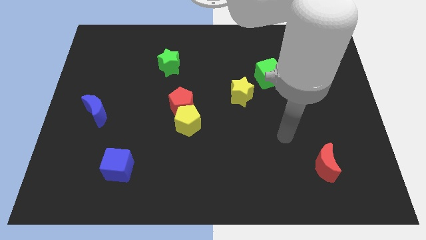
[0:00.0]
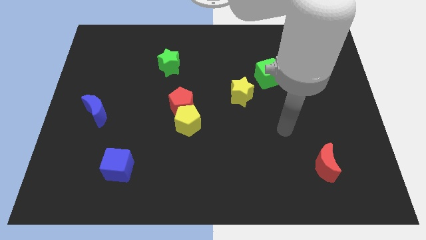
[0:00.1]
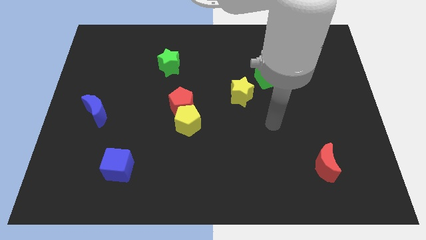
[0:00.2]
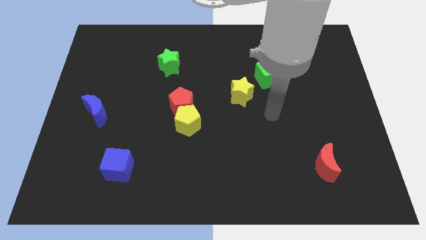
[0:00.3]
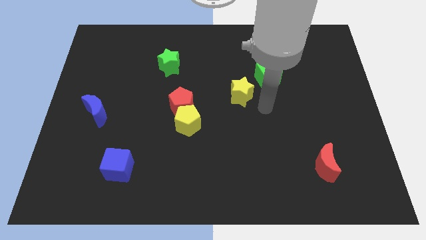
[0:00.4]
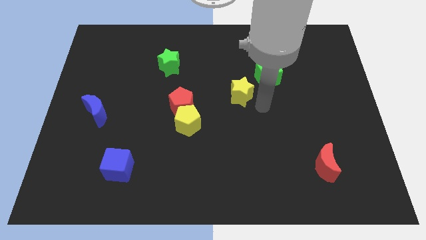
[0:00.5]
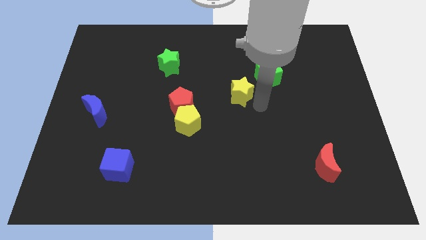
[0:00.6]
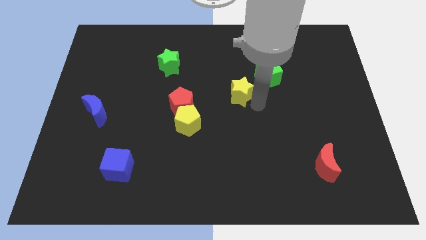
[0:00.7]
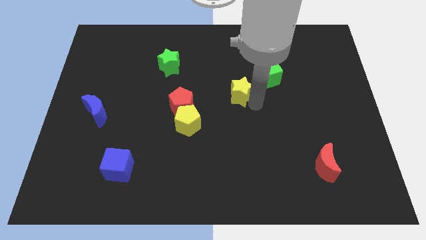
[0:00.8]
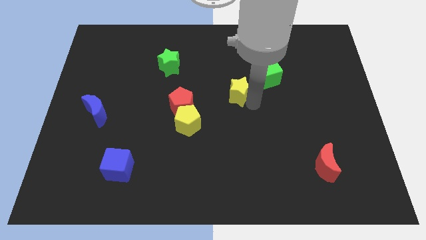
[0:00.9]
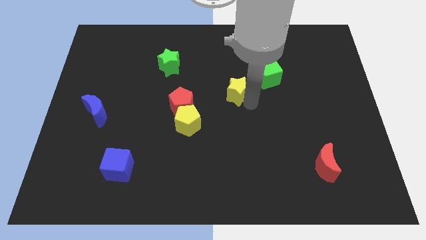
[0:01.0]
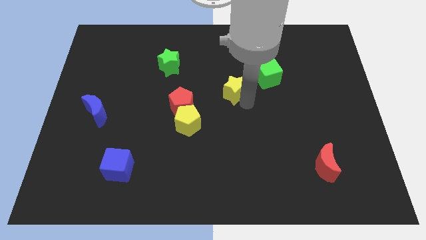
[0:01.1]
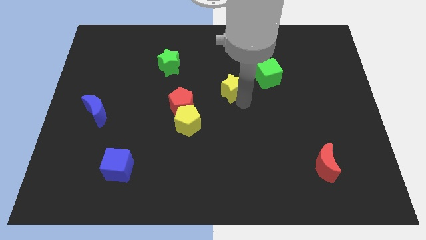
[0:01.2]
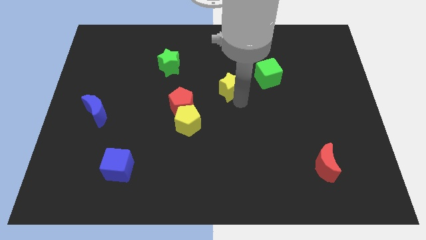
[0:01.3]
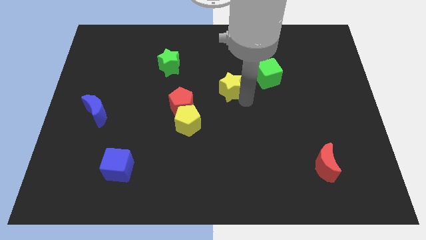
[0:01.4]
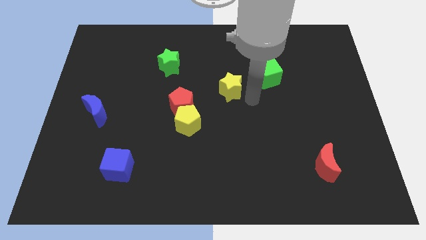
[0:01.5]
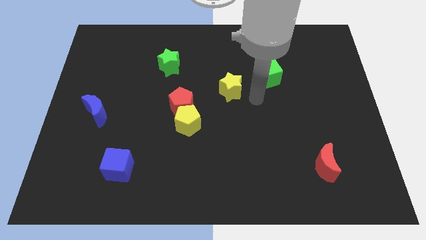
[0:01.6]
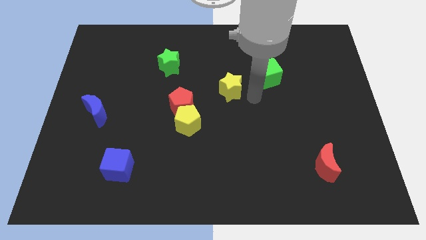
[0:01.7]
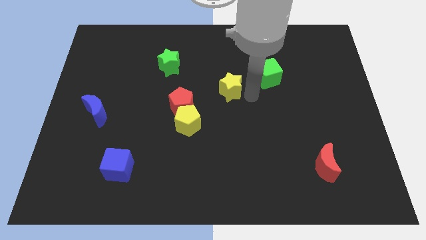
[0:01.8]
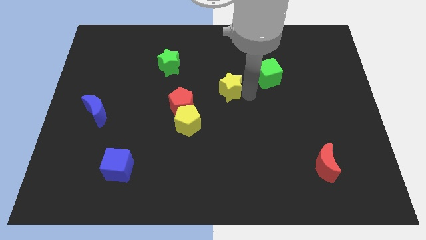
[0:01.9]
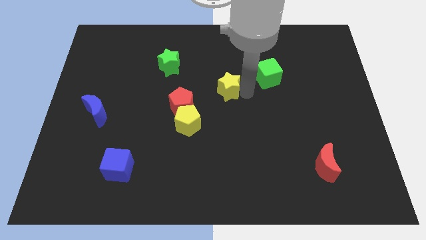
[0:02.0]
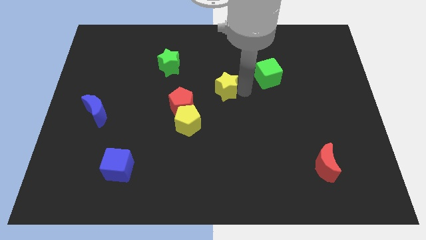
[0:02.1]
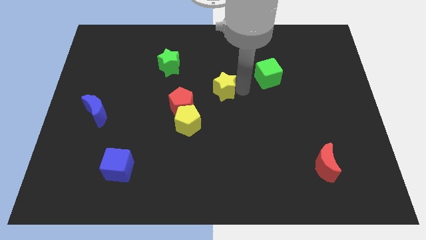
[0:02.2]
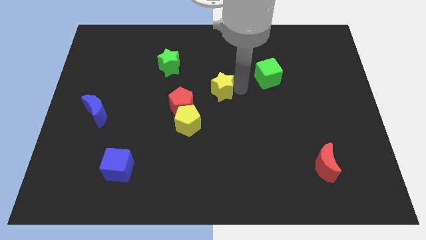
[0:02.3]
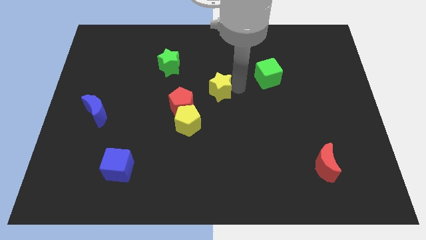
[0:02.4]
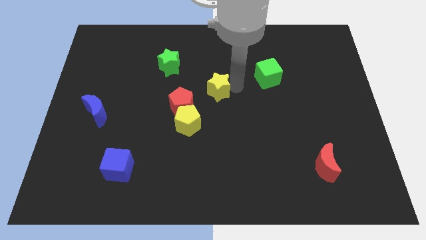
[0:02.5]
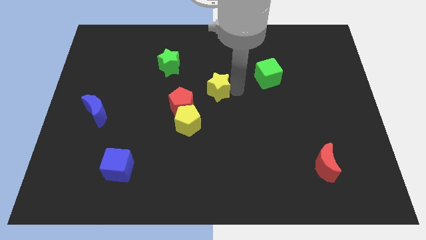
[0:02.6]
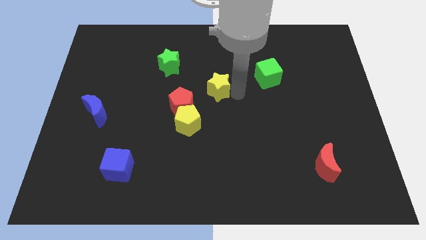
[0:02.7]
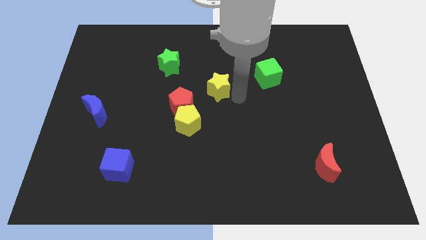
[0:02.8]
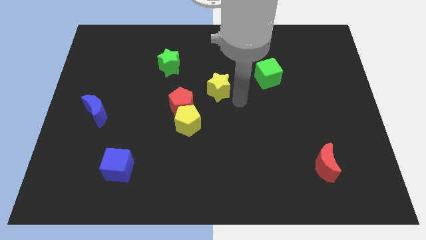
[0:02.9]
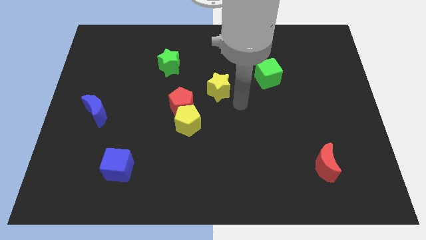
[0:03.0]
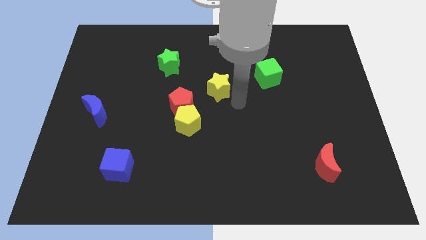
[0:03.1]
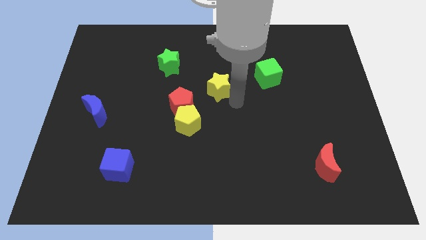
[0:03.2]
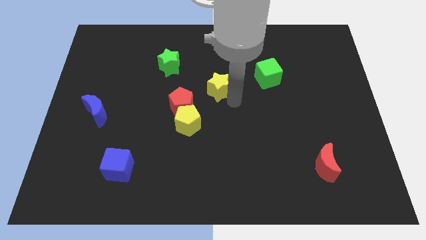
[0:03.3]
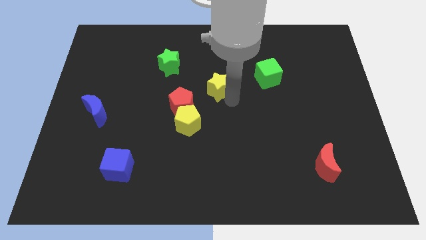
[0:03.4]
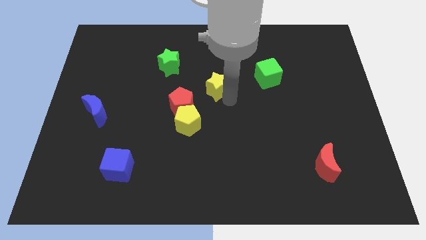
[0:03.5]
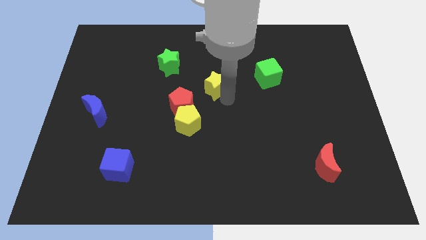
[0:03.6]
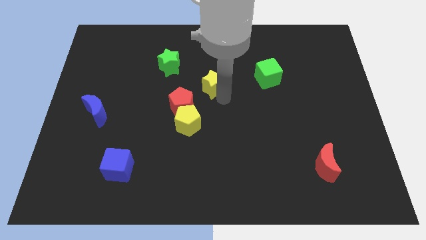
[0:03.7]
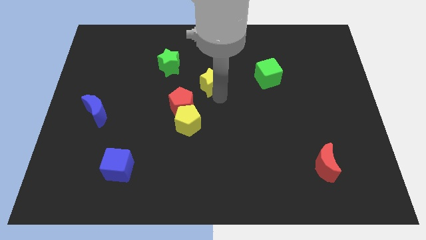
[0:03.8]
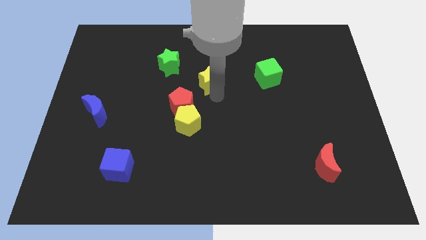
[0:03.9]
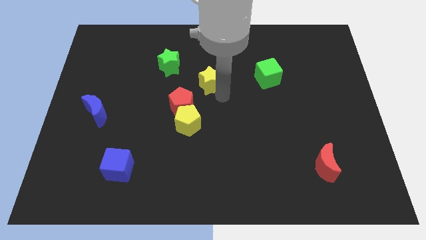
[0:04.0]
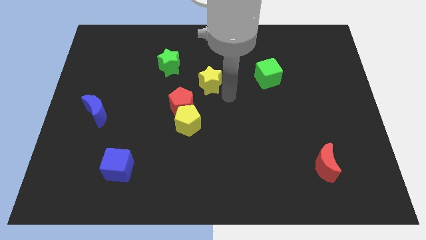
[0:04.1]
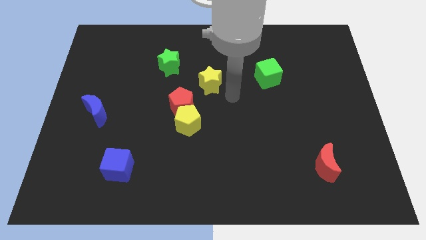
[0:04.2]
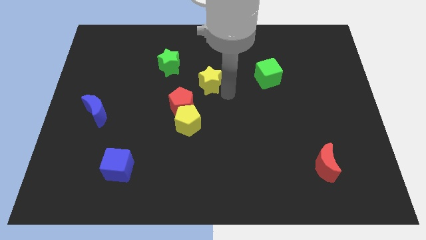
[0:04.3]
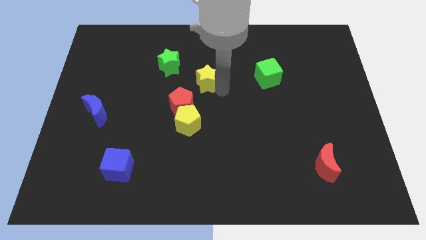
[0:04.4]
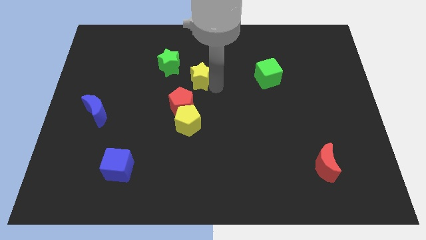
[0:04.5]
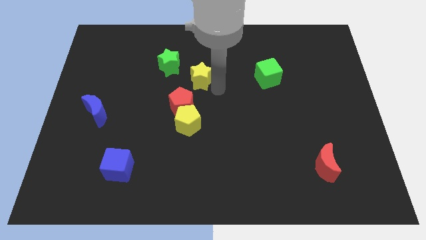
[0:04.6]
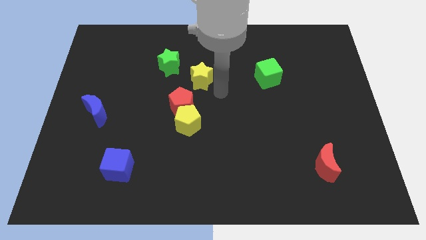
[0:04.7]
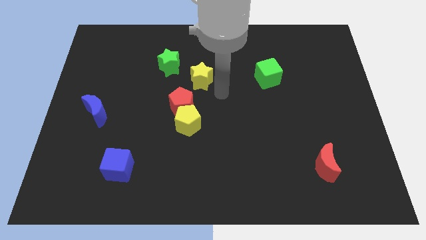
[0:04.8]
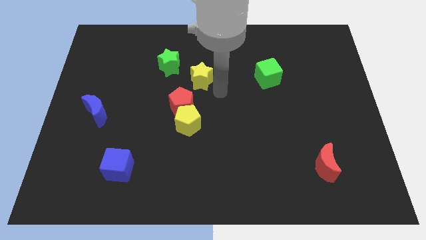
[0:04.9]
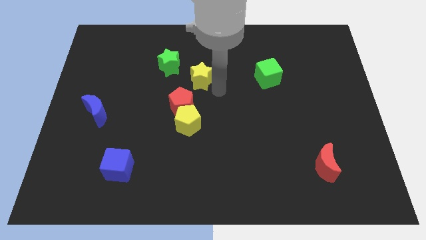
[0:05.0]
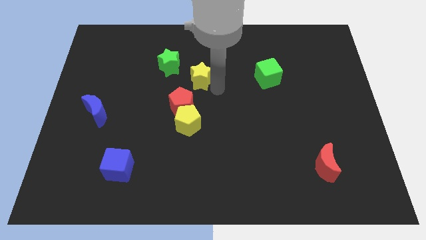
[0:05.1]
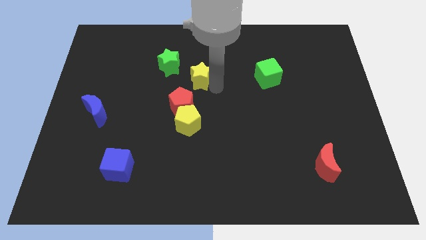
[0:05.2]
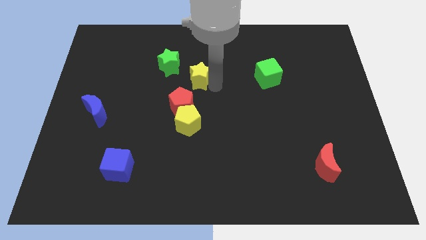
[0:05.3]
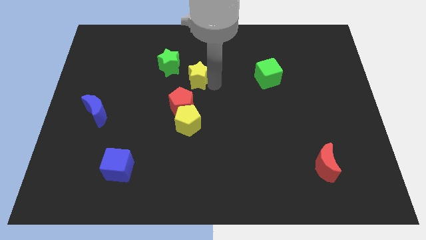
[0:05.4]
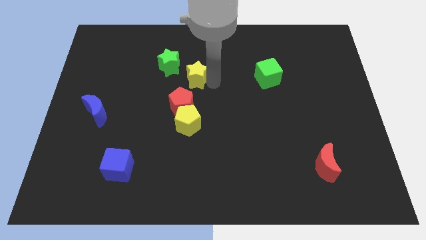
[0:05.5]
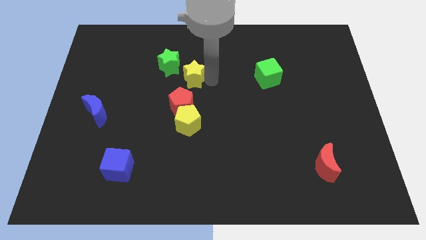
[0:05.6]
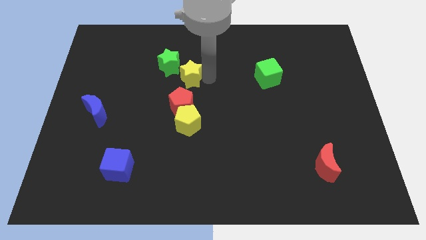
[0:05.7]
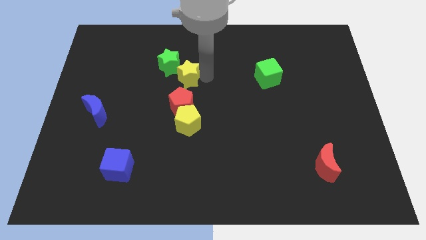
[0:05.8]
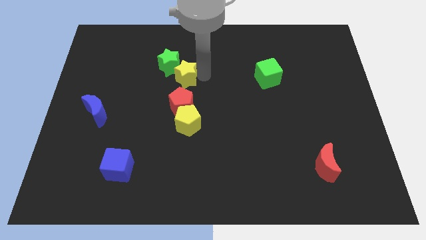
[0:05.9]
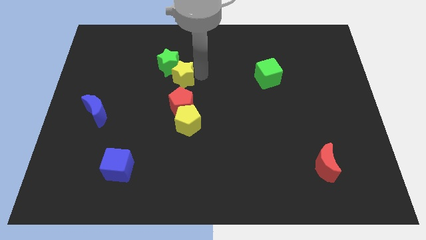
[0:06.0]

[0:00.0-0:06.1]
push the yellow star towards the green star

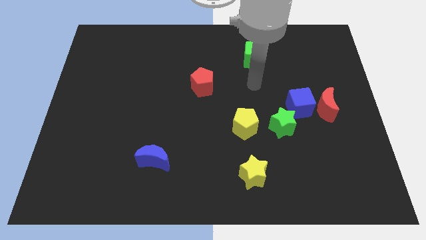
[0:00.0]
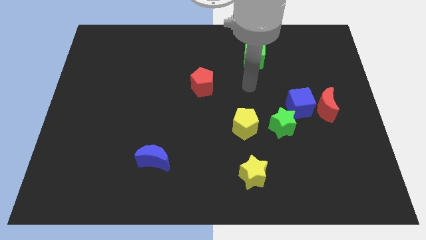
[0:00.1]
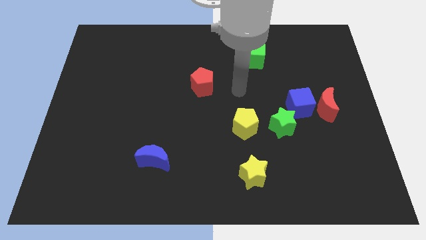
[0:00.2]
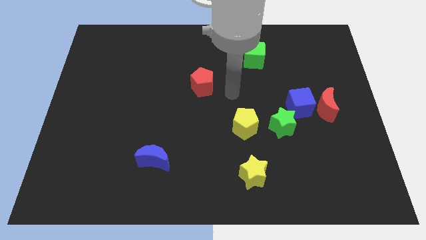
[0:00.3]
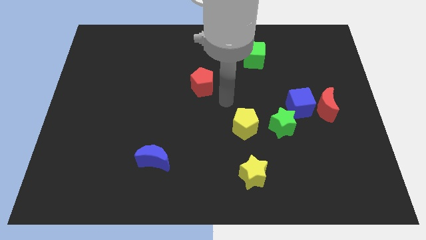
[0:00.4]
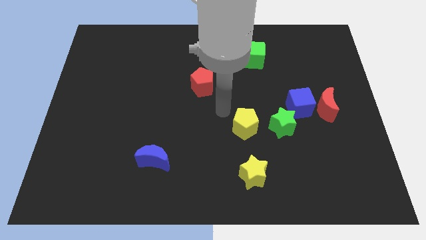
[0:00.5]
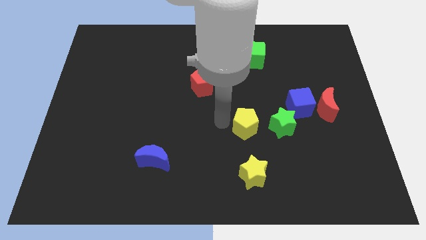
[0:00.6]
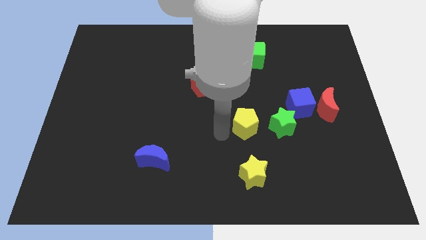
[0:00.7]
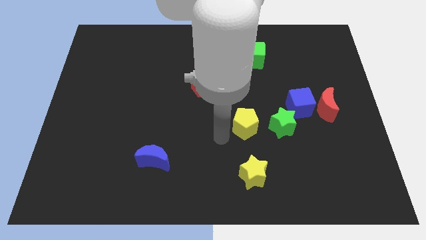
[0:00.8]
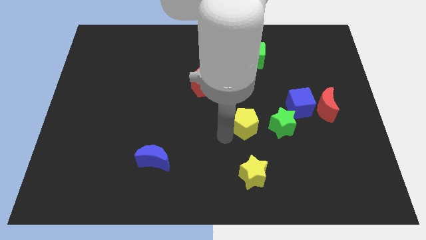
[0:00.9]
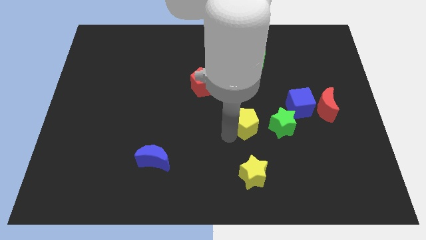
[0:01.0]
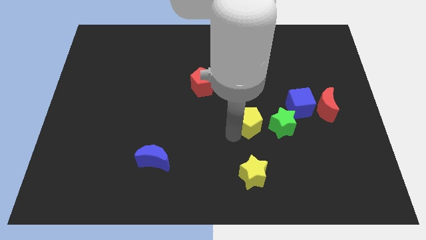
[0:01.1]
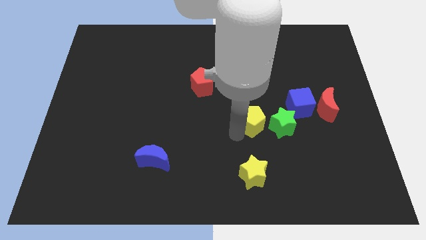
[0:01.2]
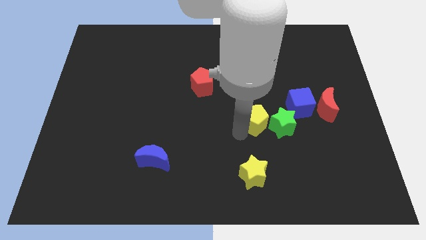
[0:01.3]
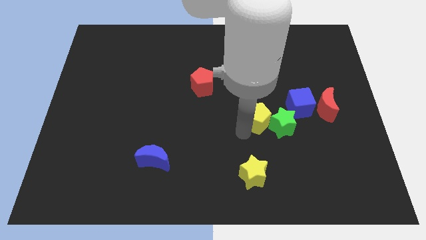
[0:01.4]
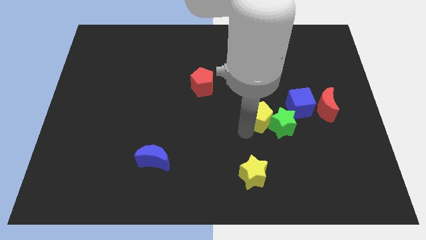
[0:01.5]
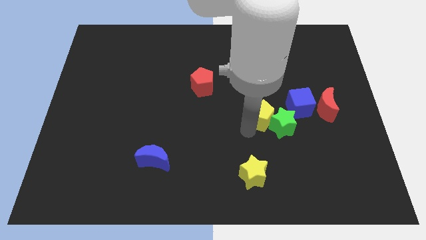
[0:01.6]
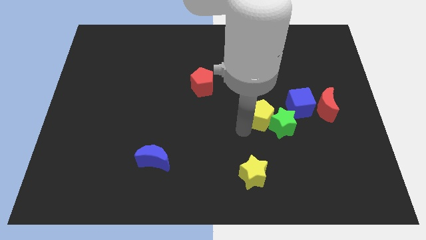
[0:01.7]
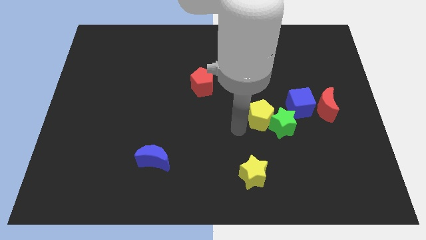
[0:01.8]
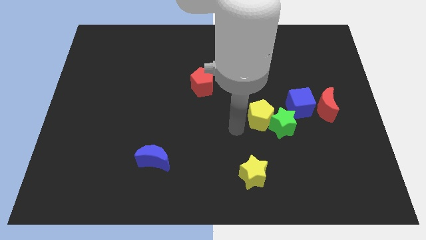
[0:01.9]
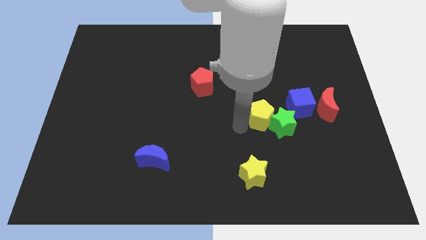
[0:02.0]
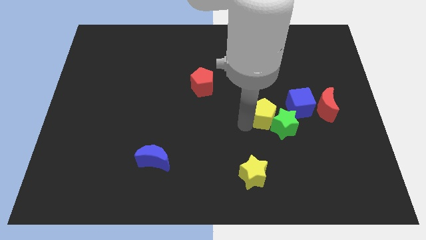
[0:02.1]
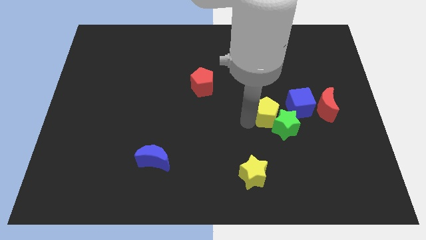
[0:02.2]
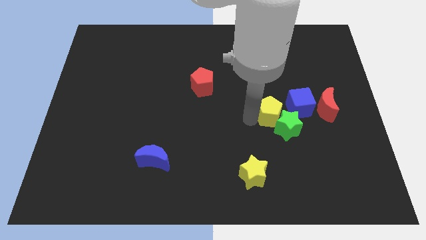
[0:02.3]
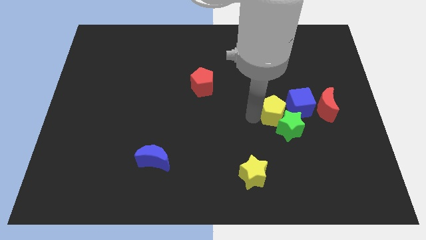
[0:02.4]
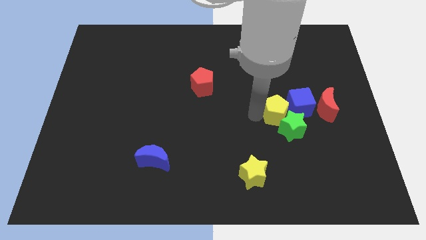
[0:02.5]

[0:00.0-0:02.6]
move the yellow pentagon to the blue cube
